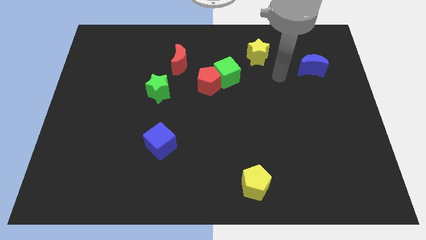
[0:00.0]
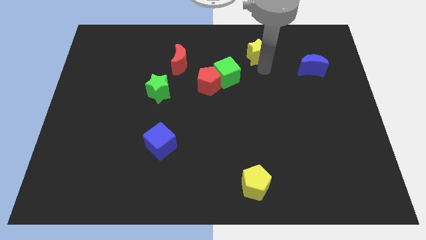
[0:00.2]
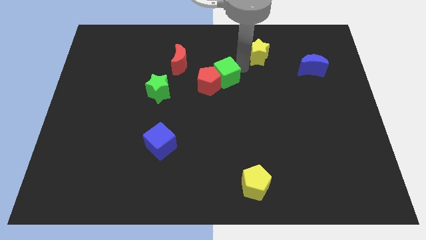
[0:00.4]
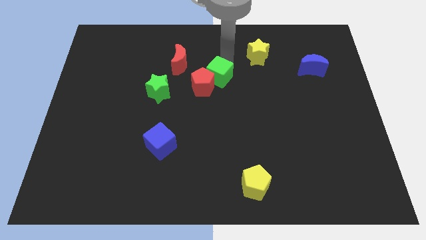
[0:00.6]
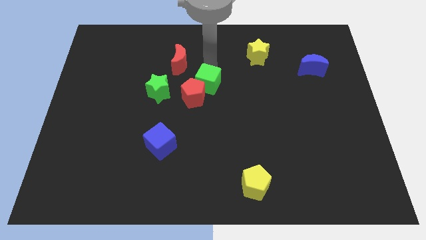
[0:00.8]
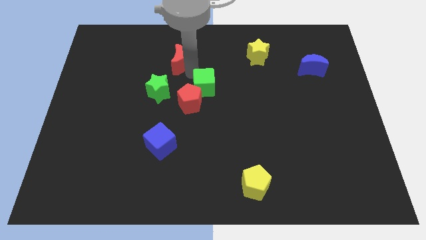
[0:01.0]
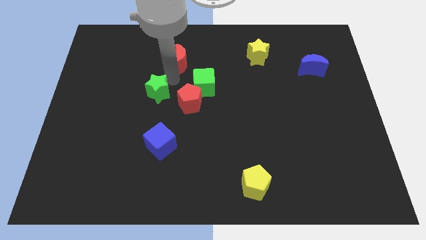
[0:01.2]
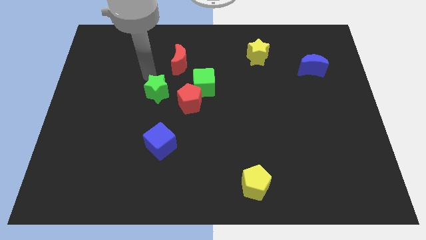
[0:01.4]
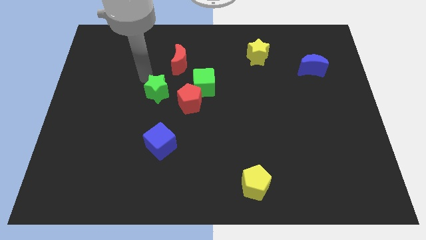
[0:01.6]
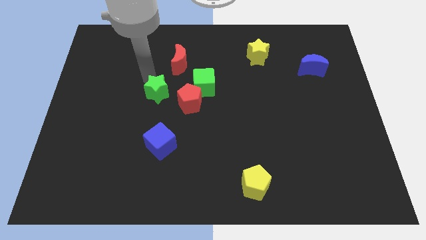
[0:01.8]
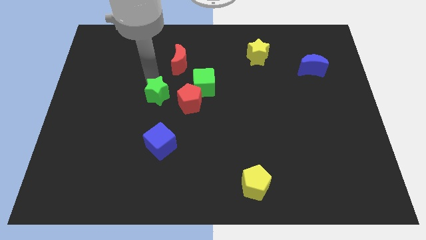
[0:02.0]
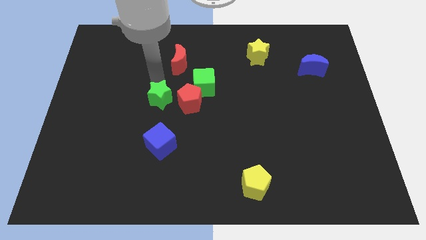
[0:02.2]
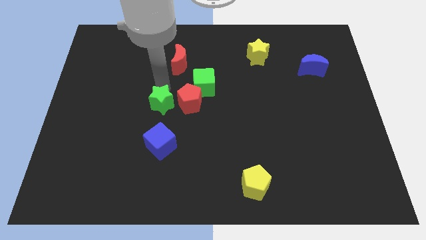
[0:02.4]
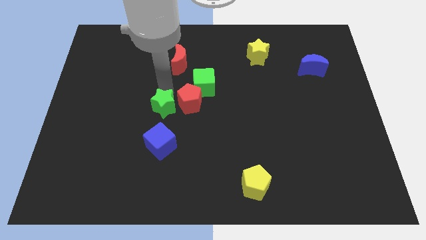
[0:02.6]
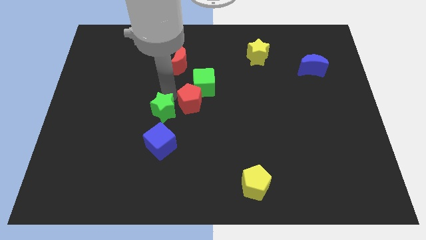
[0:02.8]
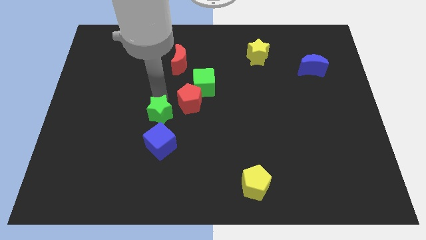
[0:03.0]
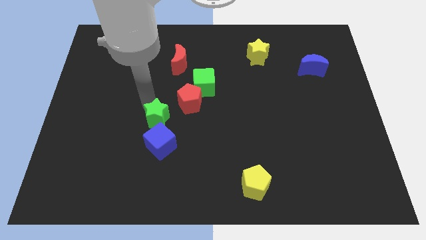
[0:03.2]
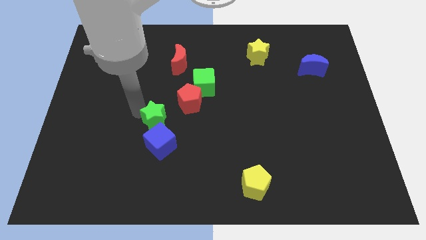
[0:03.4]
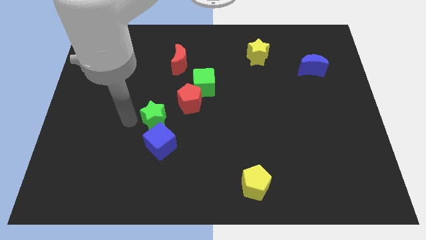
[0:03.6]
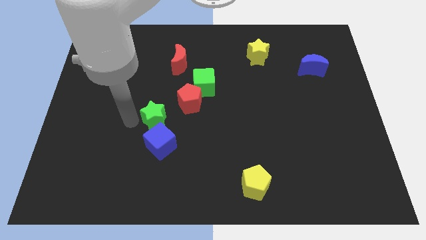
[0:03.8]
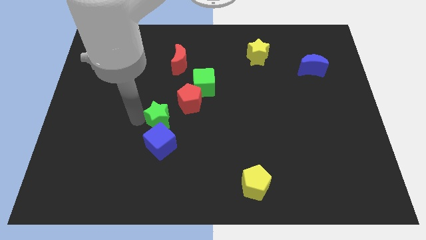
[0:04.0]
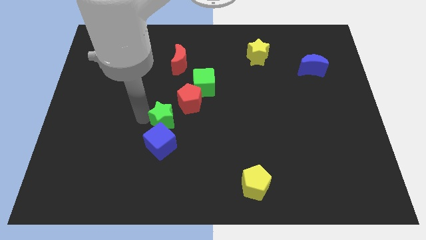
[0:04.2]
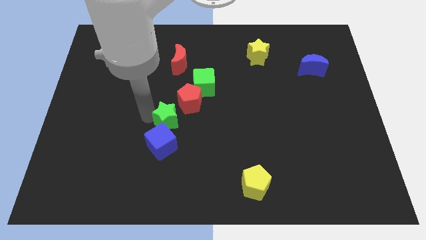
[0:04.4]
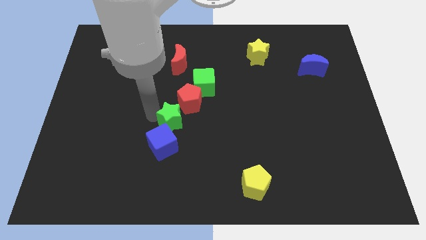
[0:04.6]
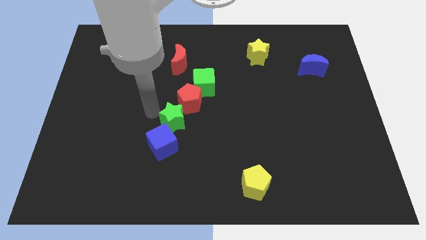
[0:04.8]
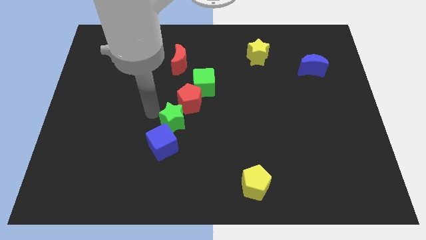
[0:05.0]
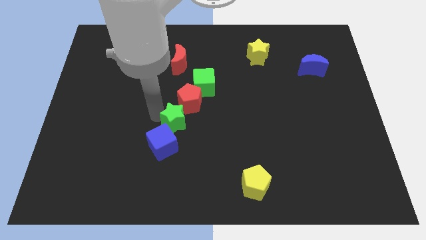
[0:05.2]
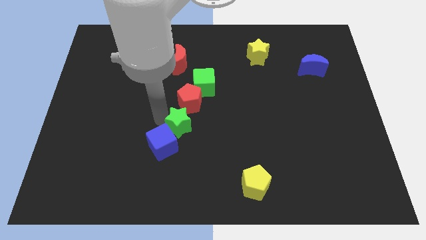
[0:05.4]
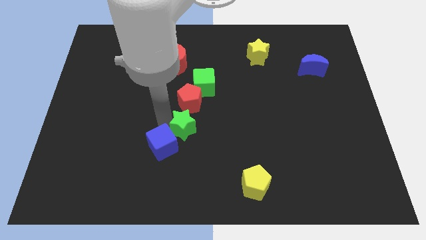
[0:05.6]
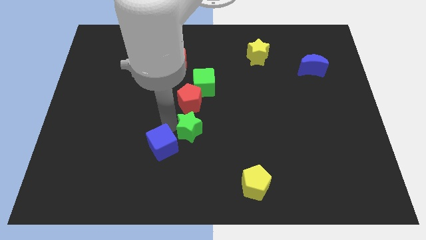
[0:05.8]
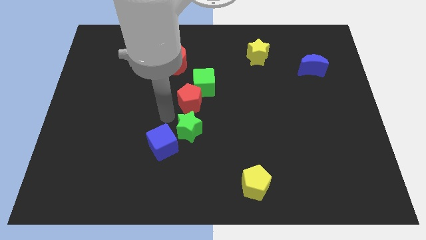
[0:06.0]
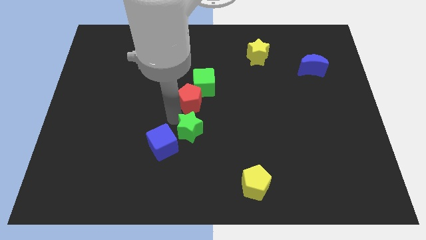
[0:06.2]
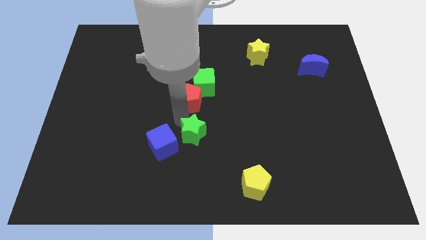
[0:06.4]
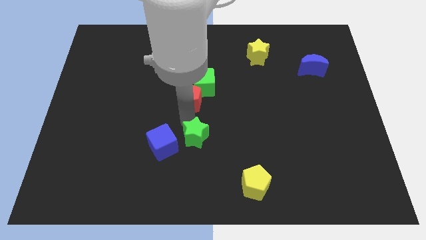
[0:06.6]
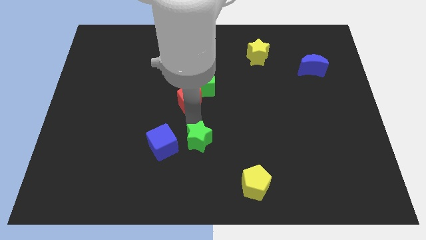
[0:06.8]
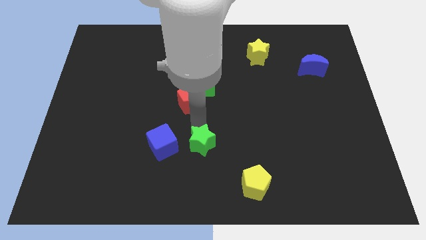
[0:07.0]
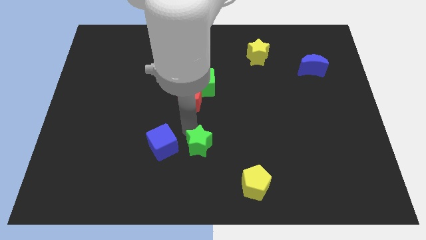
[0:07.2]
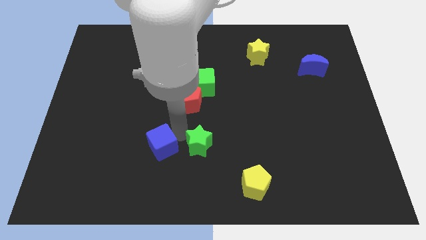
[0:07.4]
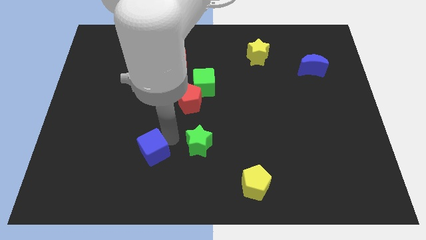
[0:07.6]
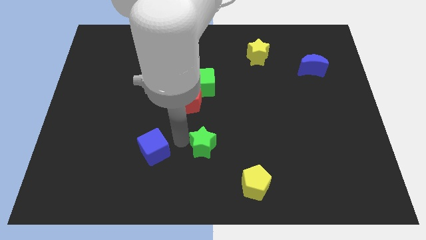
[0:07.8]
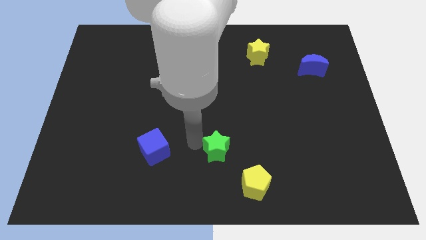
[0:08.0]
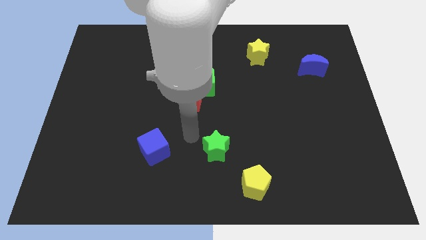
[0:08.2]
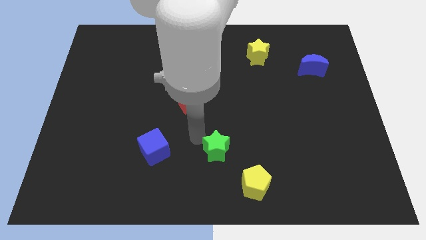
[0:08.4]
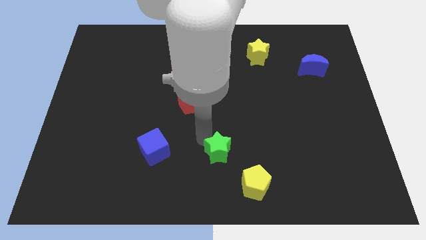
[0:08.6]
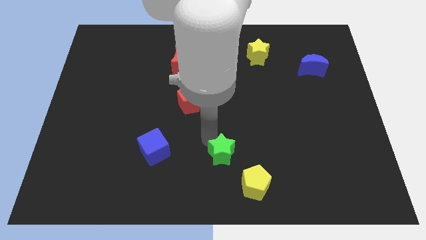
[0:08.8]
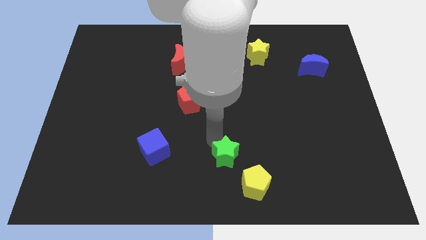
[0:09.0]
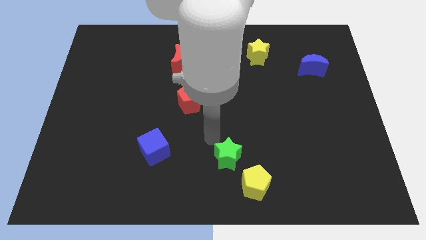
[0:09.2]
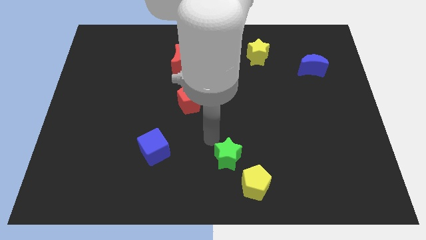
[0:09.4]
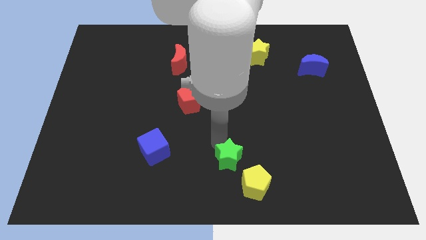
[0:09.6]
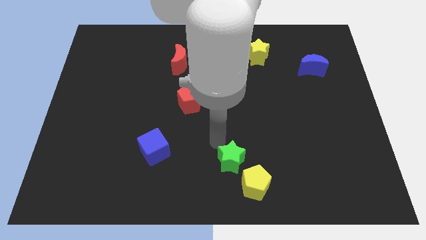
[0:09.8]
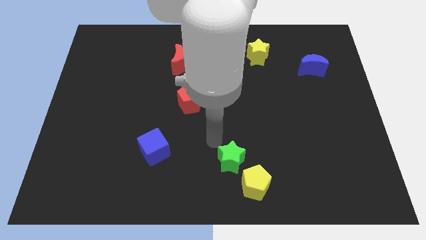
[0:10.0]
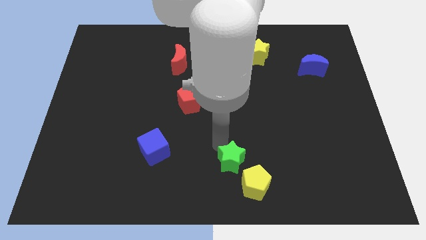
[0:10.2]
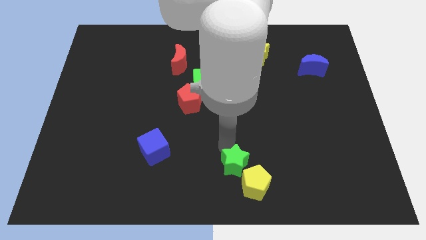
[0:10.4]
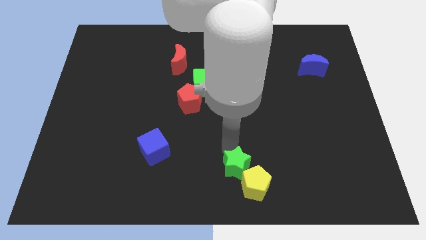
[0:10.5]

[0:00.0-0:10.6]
push the green star towards the yellow pentagon
